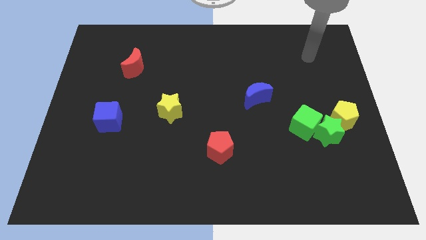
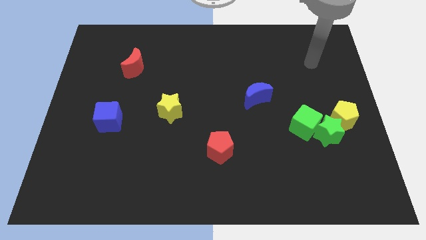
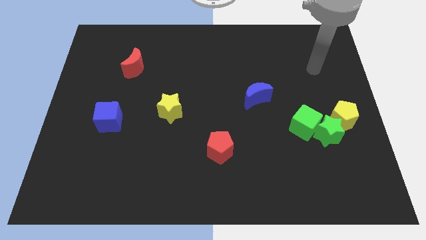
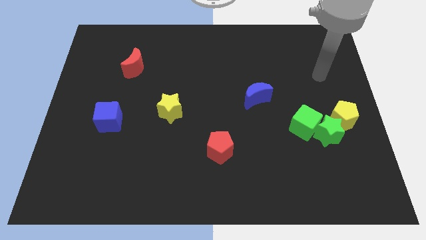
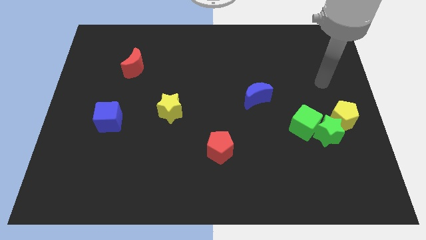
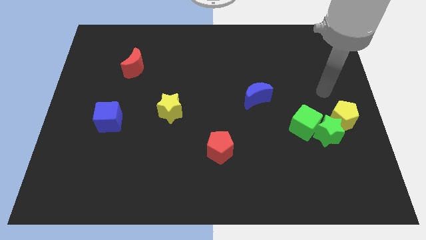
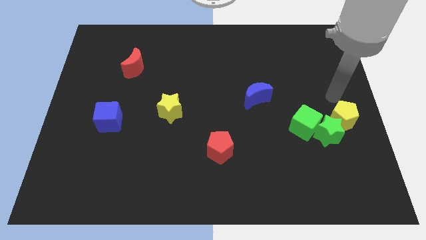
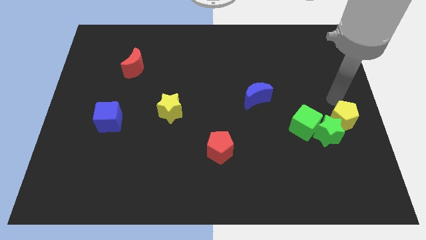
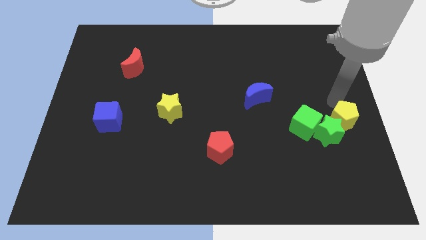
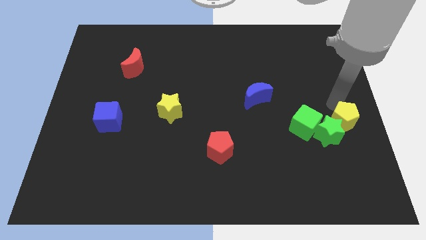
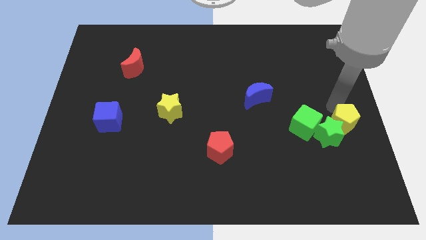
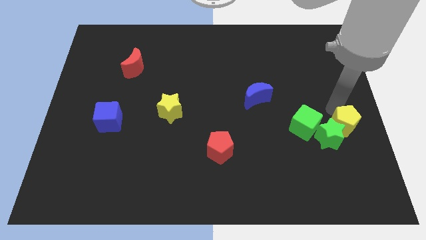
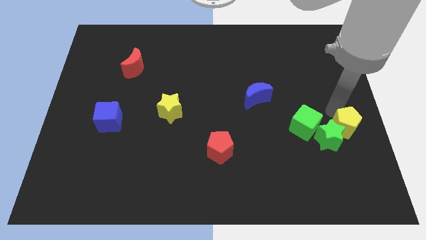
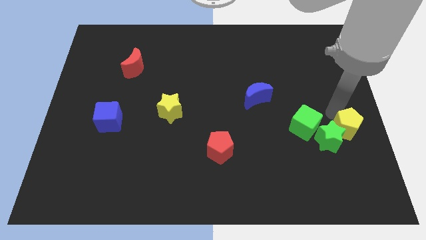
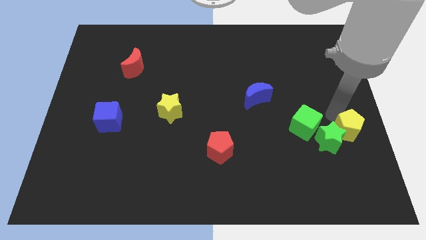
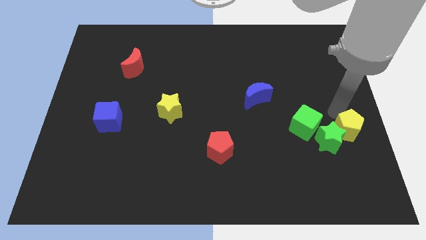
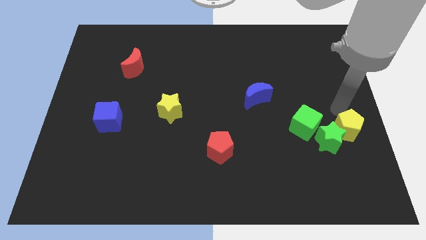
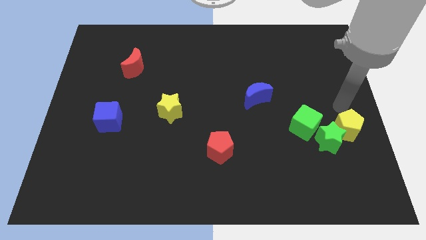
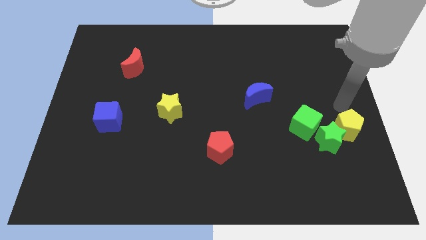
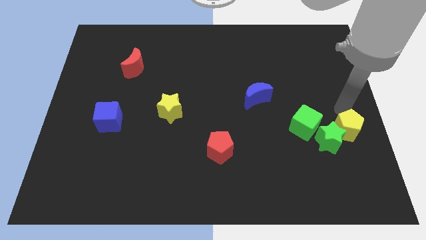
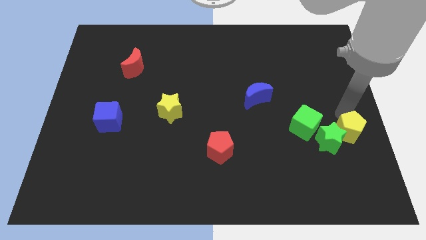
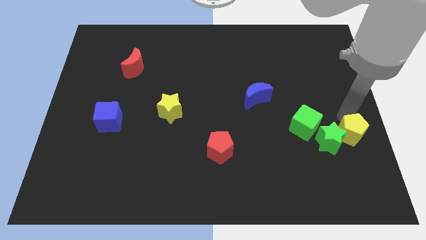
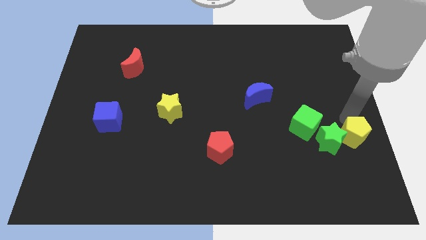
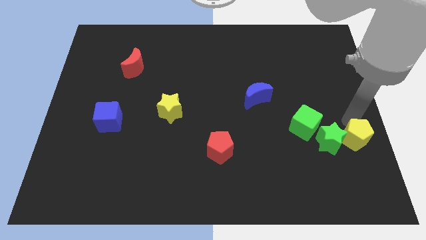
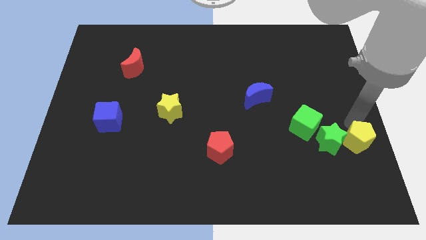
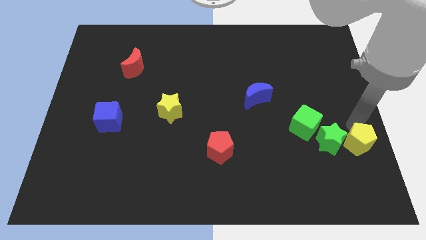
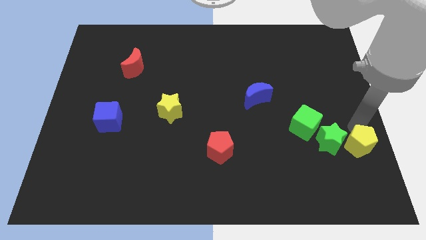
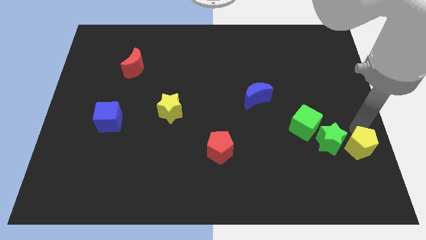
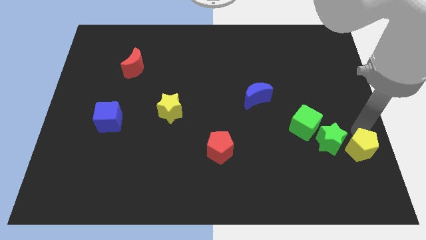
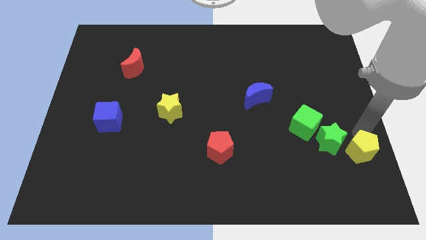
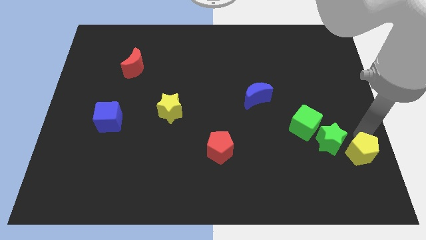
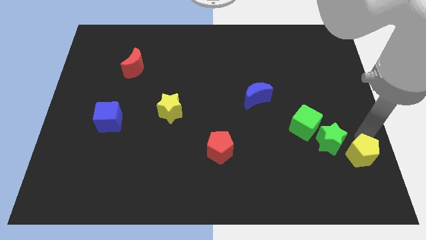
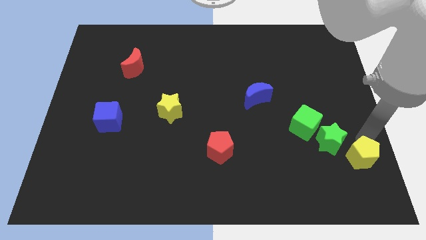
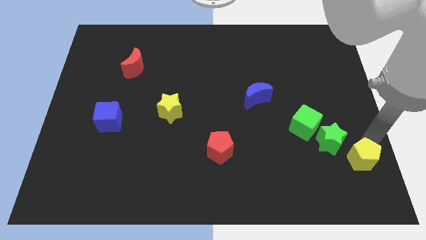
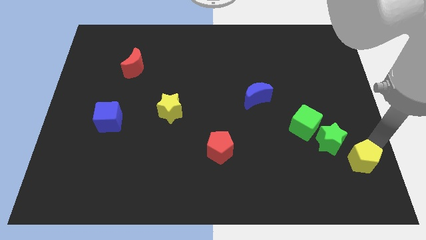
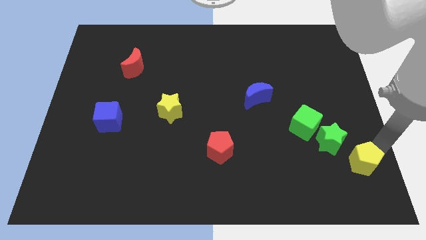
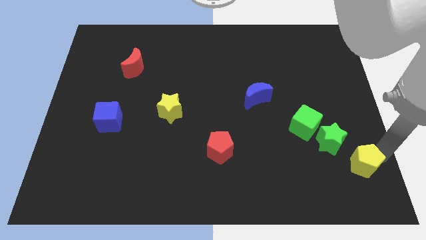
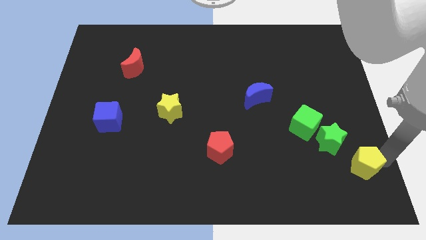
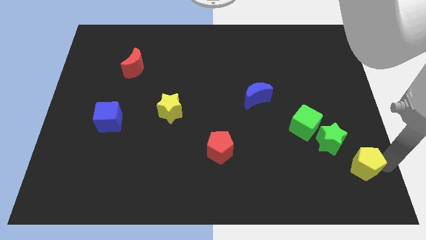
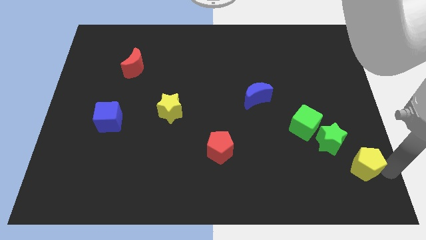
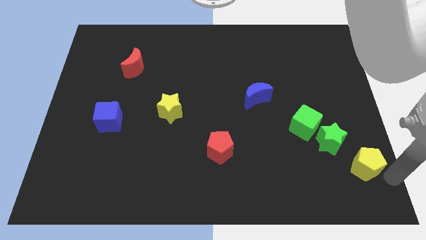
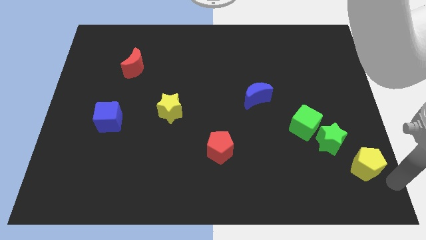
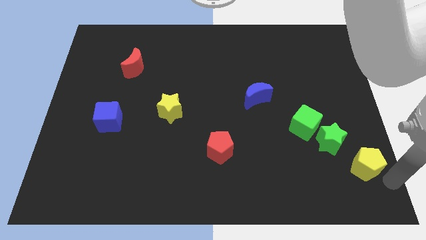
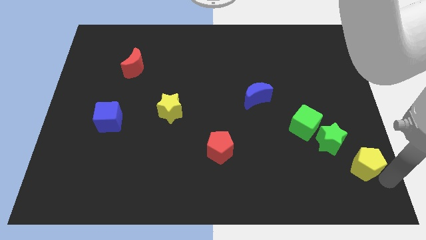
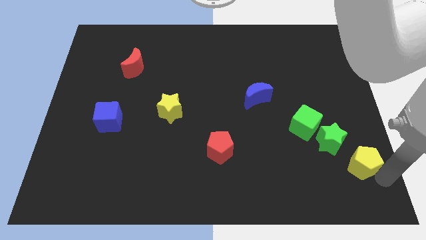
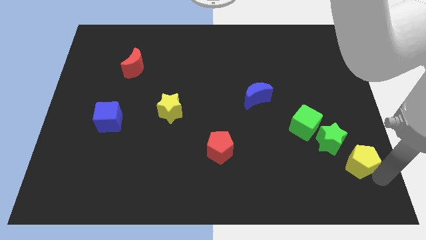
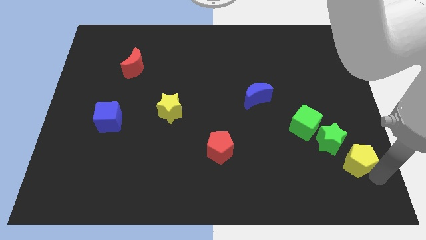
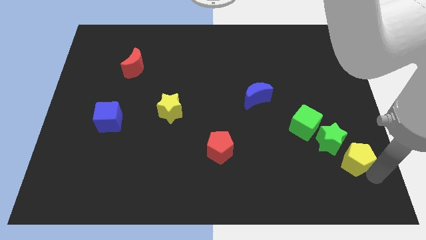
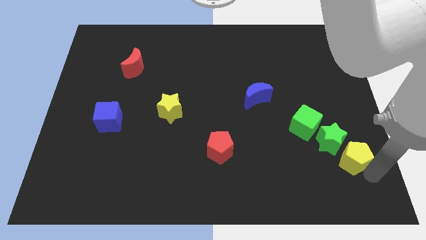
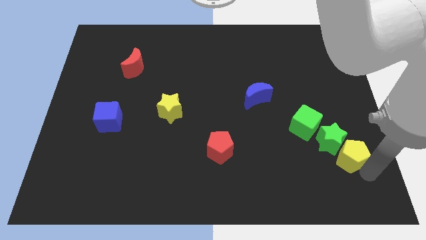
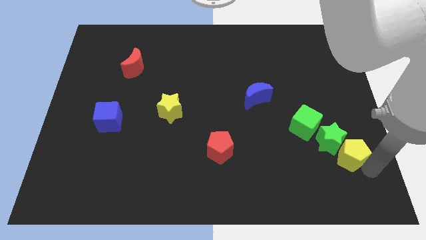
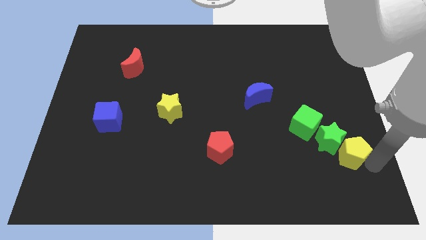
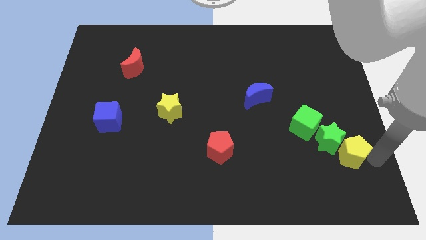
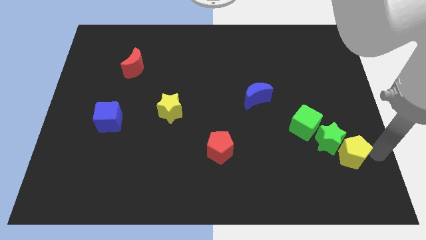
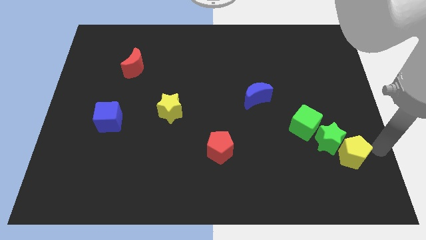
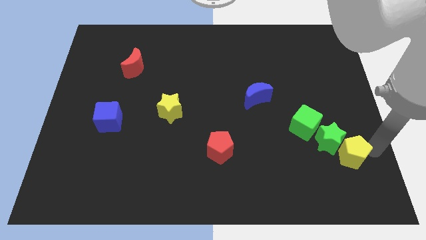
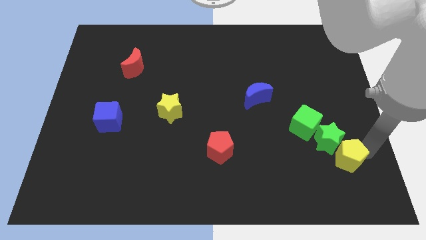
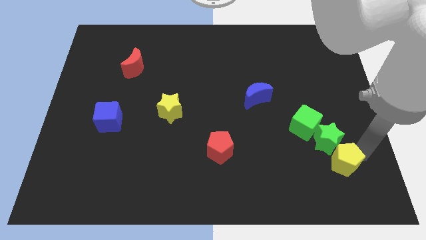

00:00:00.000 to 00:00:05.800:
slightly push the yellow pentagon diagonally down and to the left

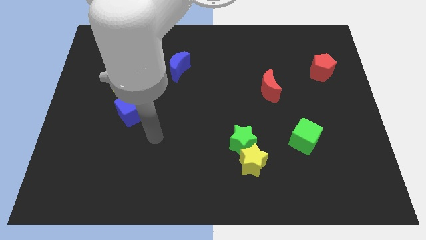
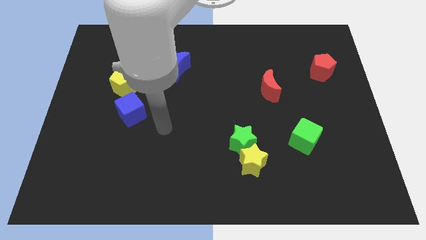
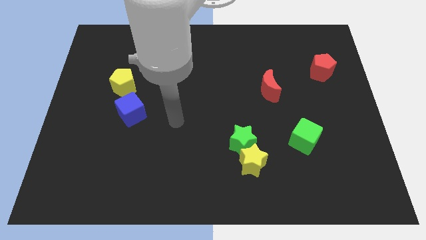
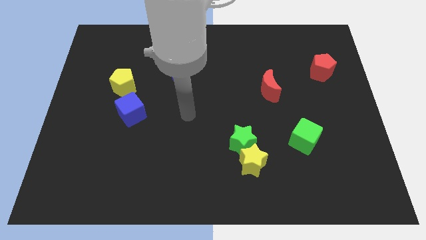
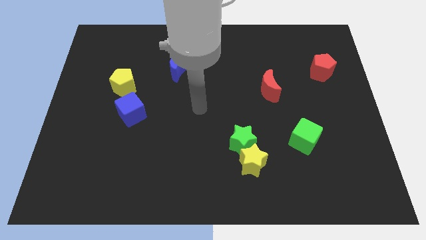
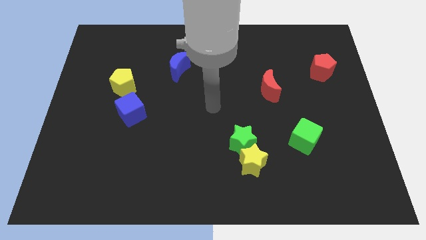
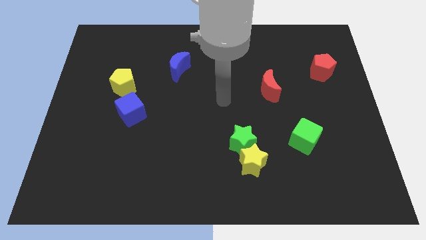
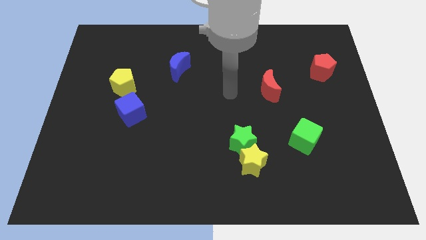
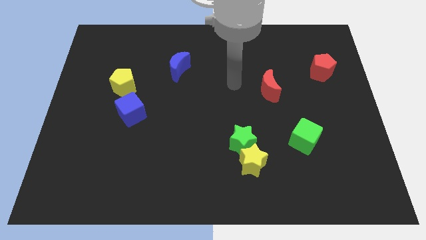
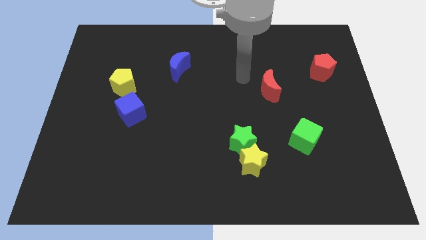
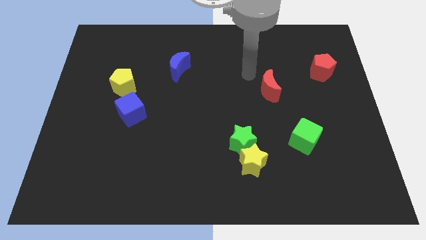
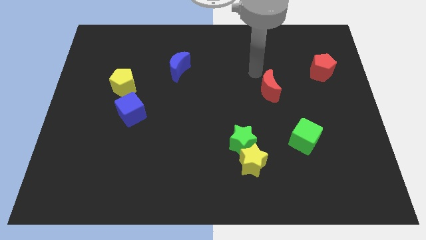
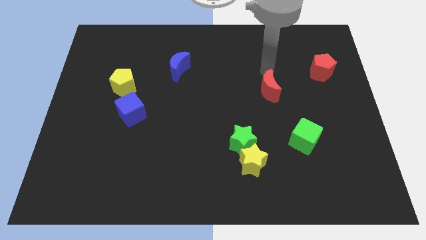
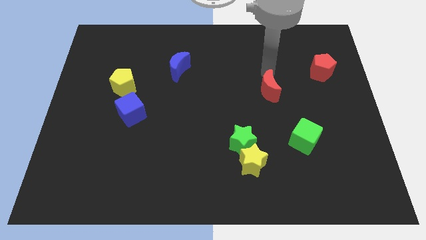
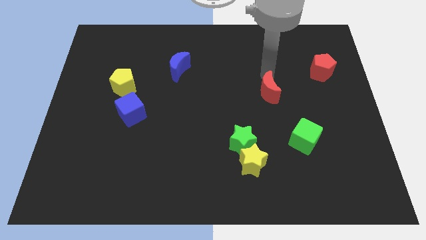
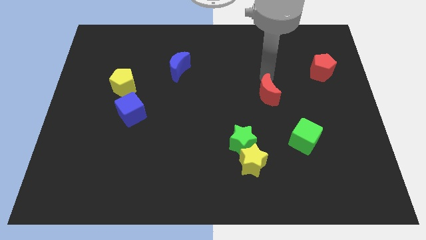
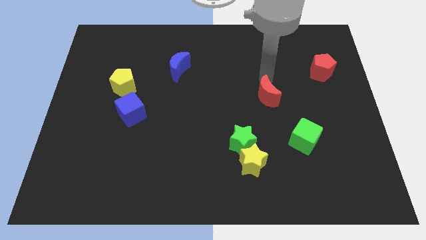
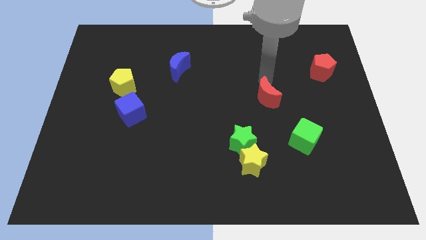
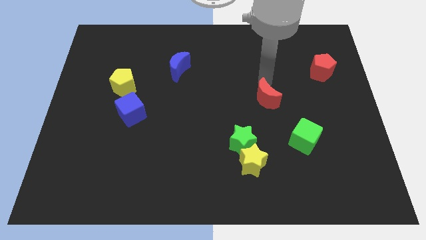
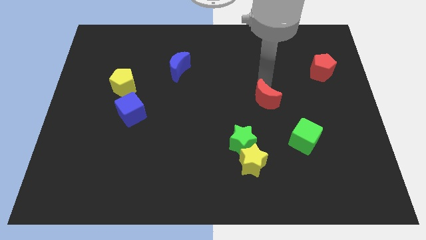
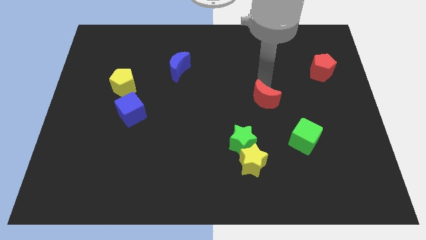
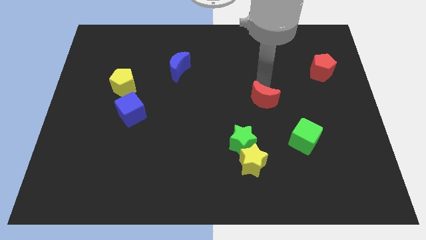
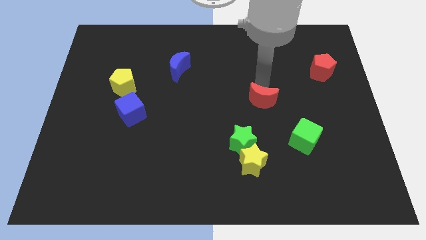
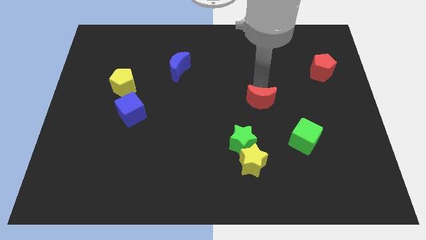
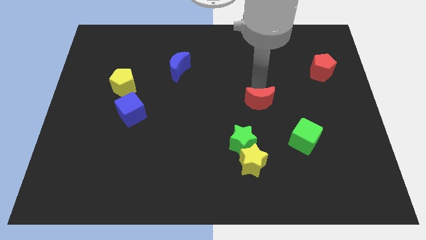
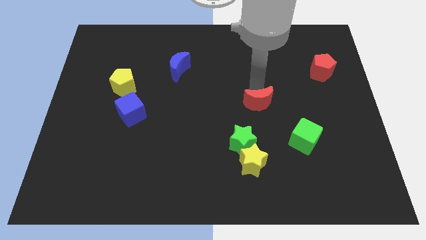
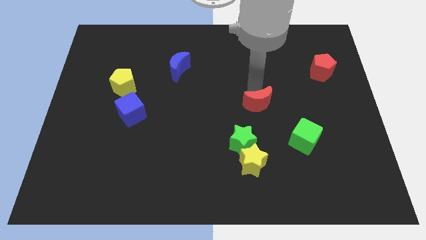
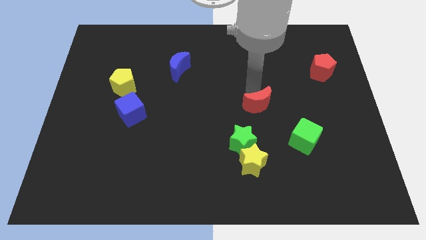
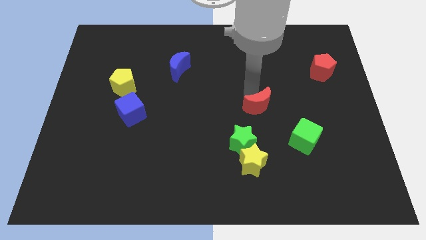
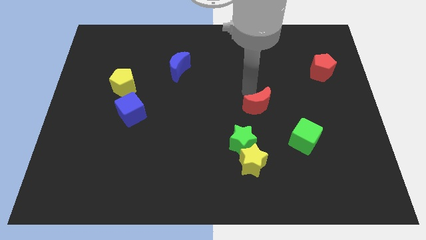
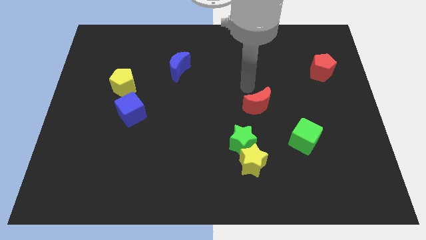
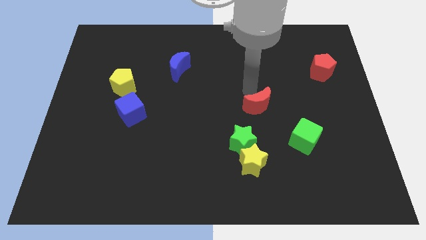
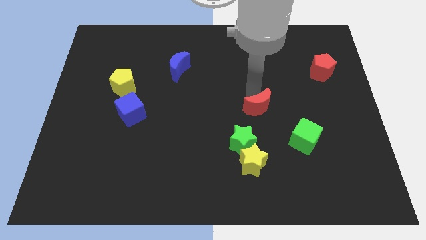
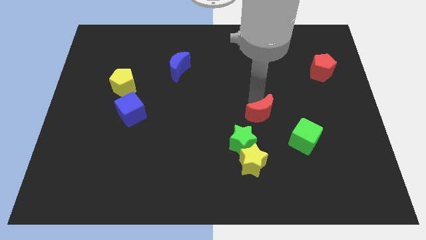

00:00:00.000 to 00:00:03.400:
slide the red moon a little down
